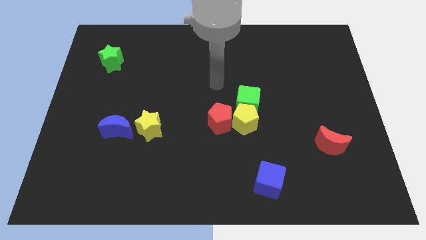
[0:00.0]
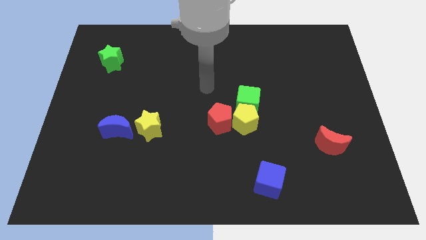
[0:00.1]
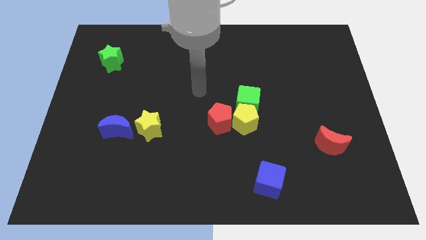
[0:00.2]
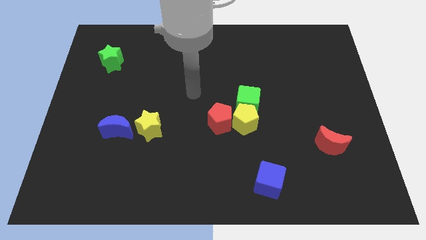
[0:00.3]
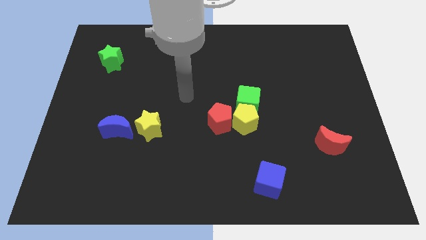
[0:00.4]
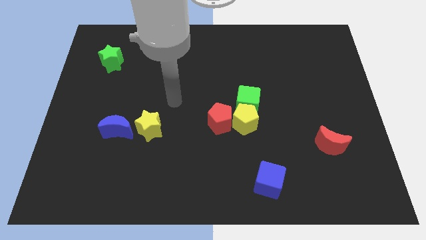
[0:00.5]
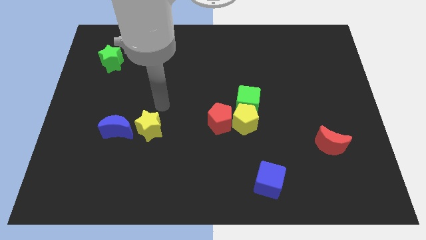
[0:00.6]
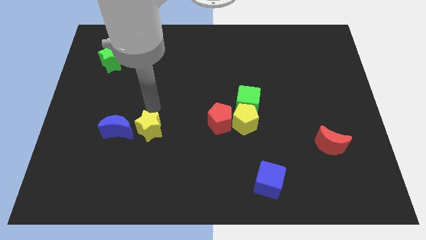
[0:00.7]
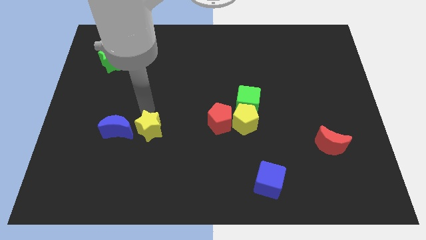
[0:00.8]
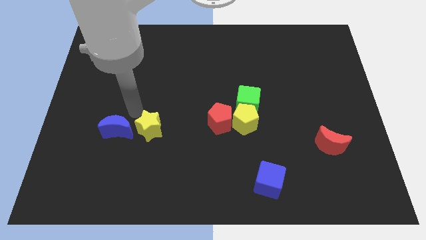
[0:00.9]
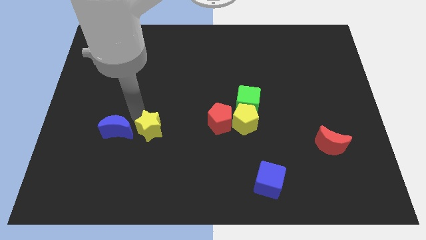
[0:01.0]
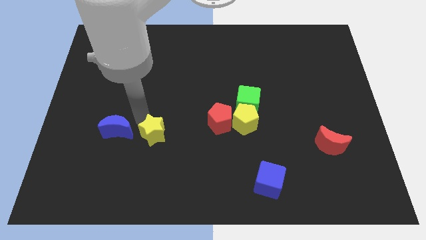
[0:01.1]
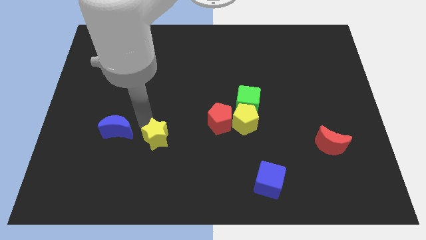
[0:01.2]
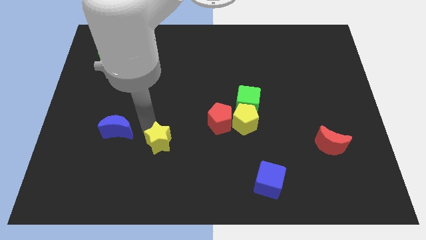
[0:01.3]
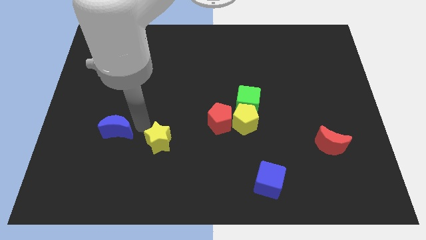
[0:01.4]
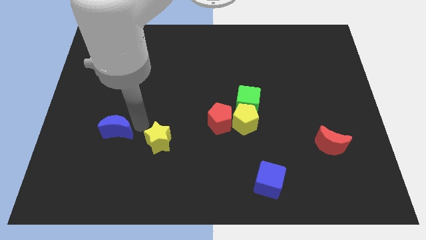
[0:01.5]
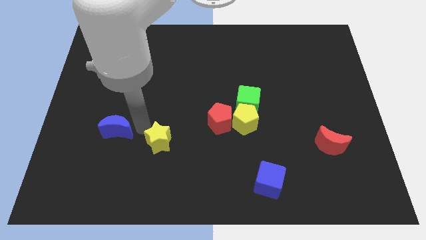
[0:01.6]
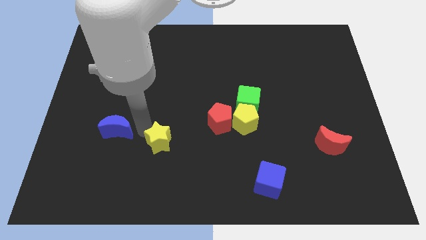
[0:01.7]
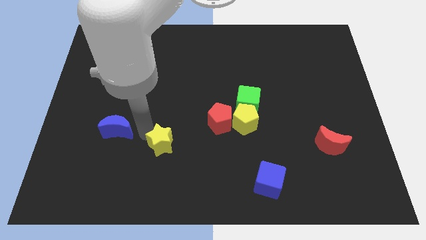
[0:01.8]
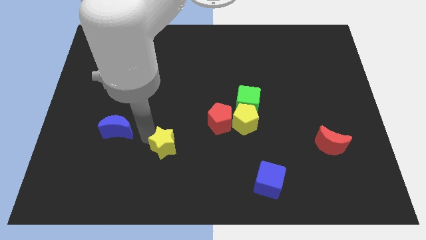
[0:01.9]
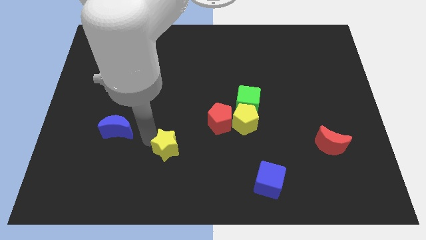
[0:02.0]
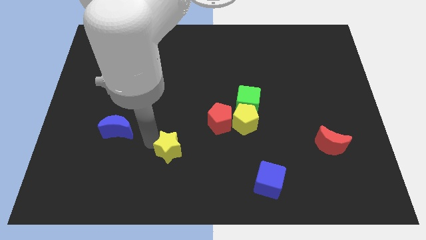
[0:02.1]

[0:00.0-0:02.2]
push the yellow star down and then right a little

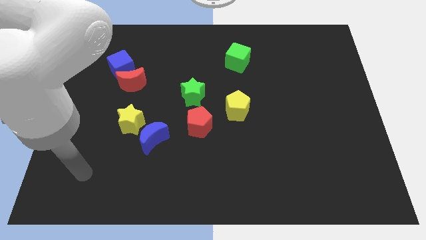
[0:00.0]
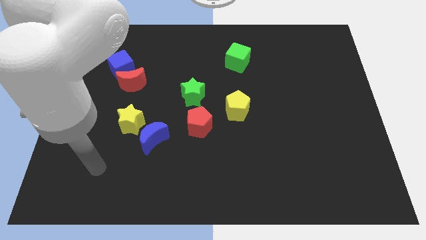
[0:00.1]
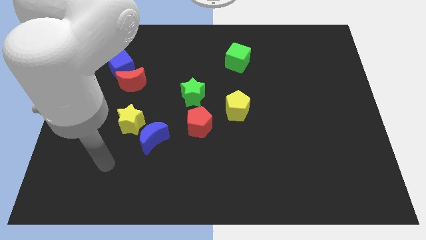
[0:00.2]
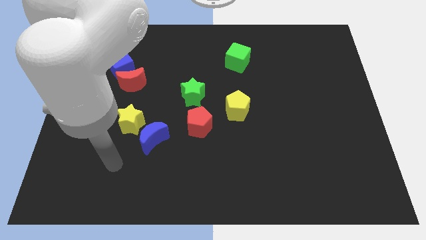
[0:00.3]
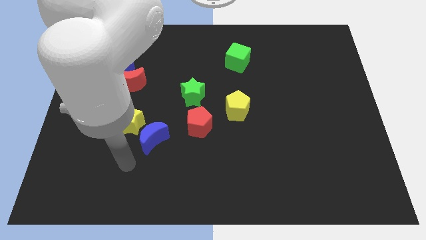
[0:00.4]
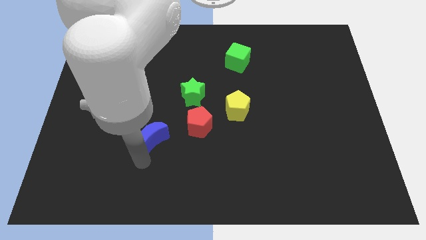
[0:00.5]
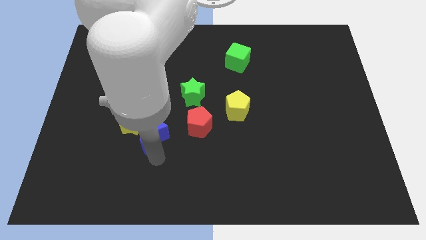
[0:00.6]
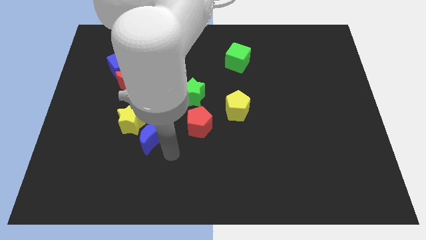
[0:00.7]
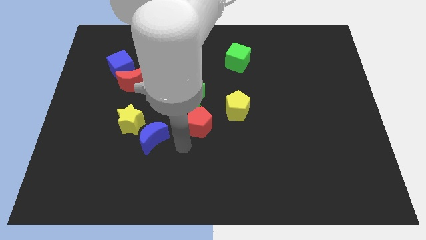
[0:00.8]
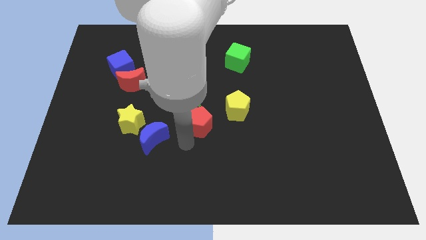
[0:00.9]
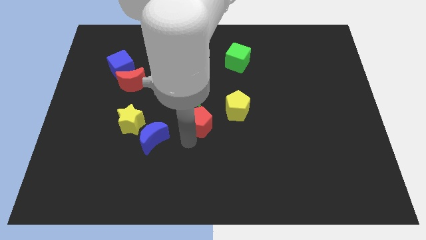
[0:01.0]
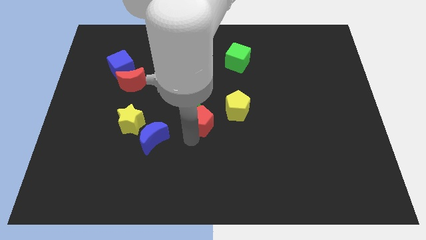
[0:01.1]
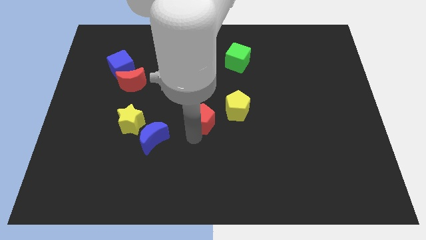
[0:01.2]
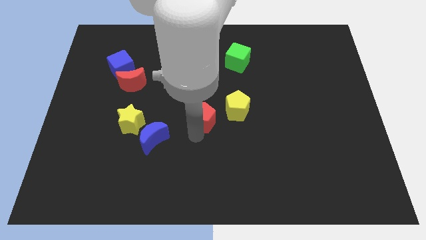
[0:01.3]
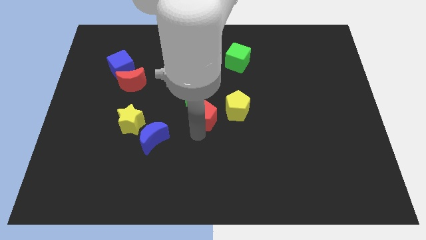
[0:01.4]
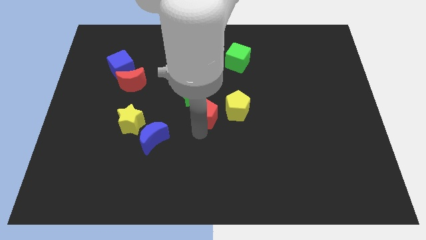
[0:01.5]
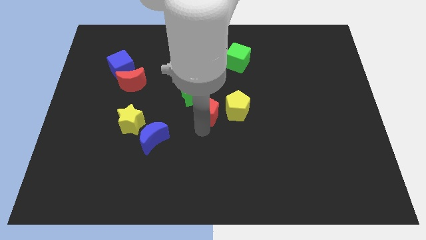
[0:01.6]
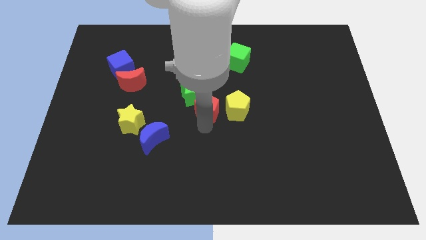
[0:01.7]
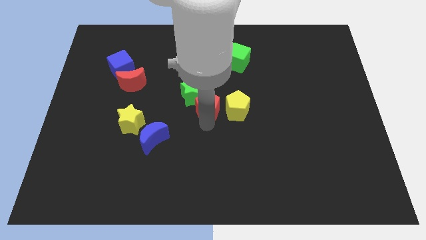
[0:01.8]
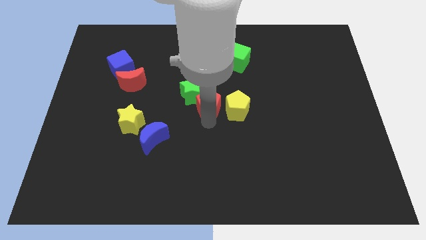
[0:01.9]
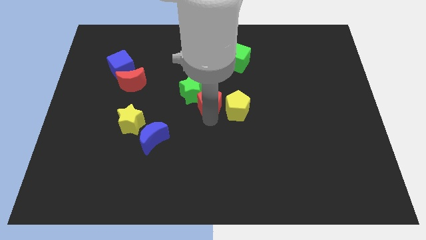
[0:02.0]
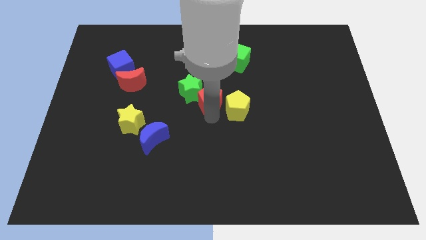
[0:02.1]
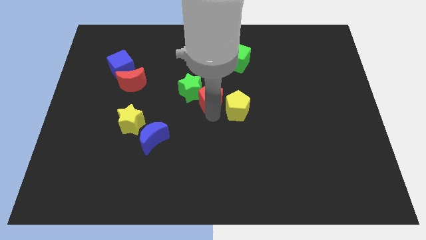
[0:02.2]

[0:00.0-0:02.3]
slide the red pentagon up slightly

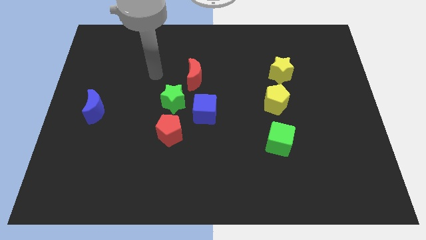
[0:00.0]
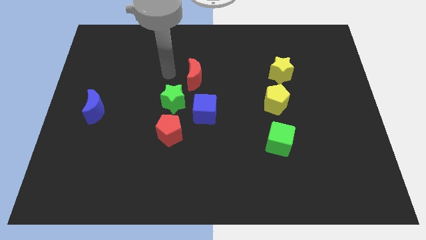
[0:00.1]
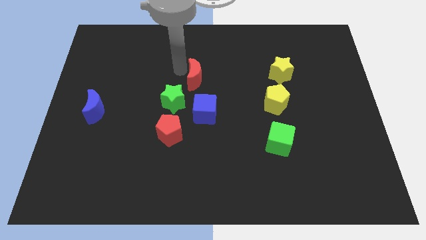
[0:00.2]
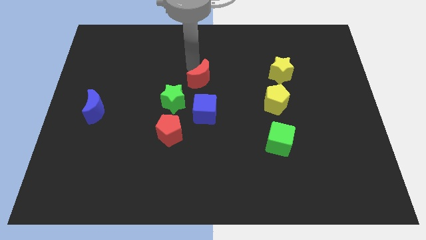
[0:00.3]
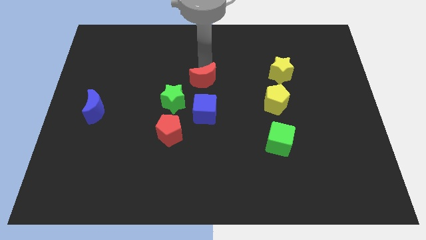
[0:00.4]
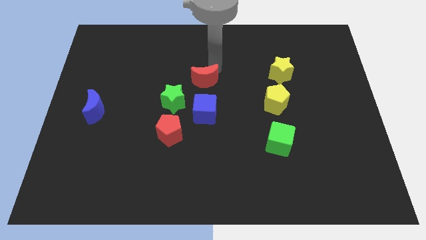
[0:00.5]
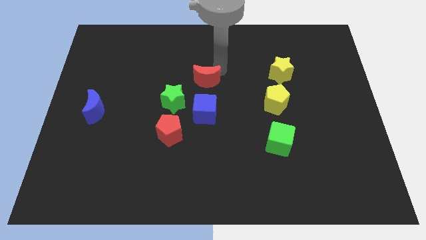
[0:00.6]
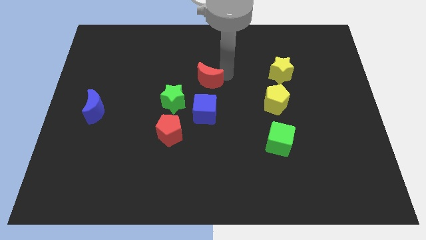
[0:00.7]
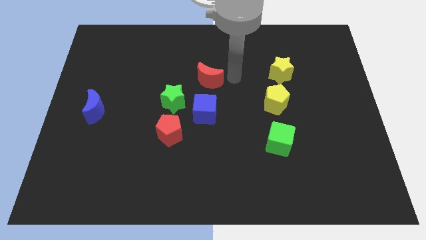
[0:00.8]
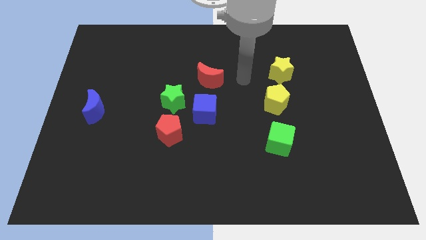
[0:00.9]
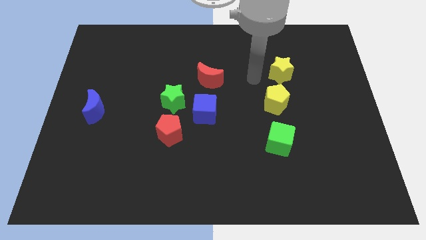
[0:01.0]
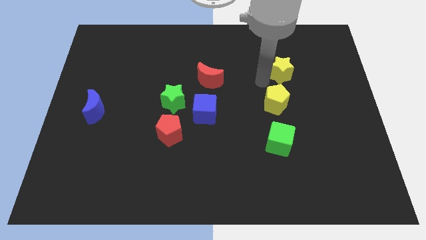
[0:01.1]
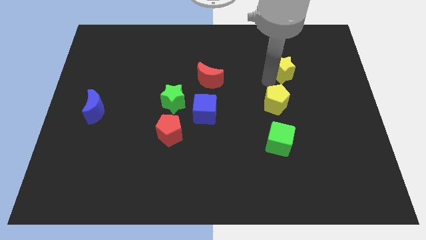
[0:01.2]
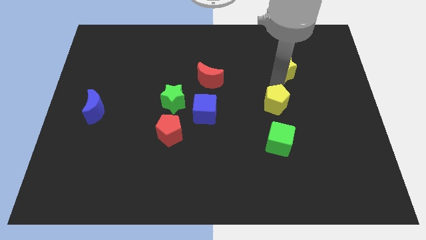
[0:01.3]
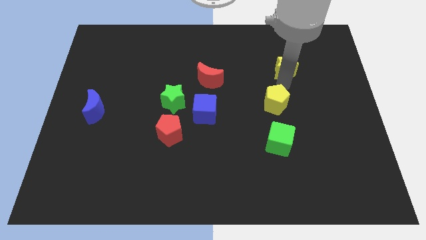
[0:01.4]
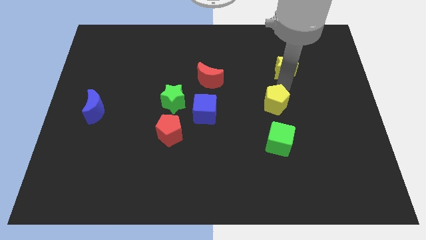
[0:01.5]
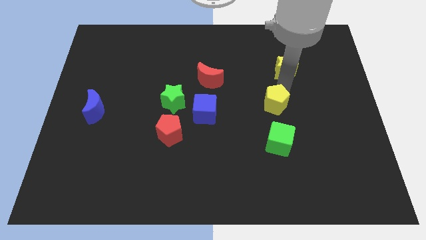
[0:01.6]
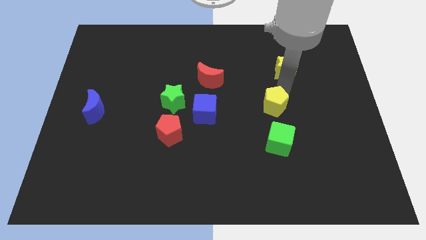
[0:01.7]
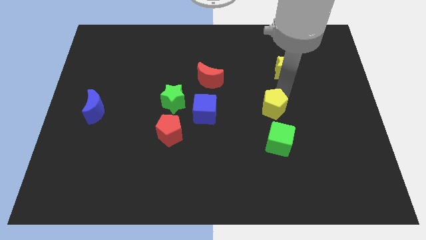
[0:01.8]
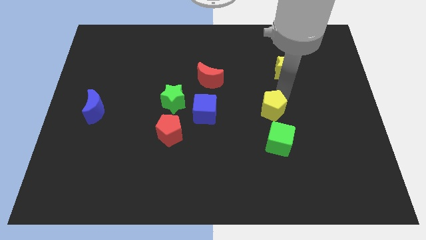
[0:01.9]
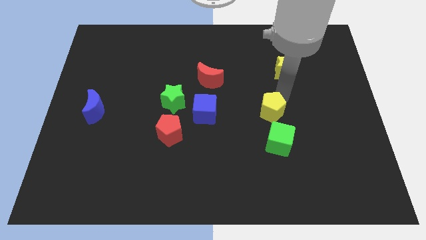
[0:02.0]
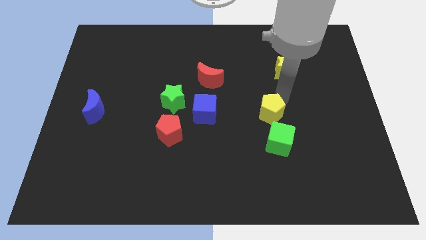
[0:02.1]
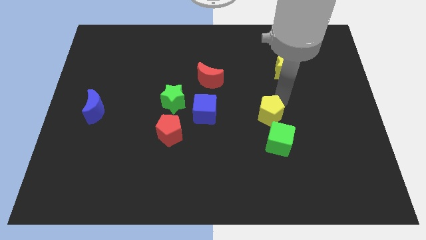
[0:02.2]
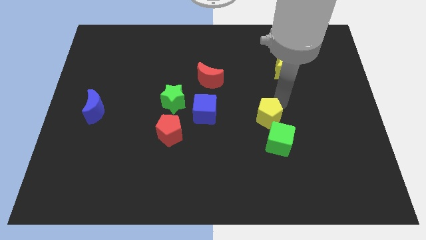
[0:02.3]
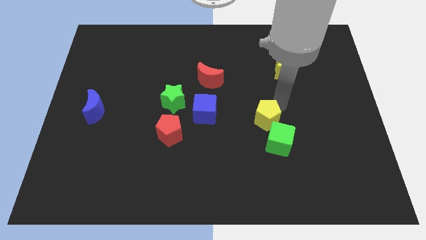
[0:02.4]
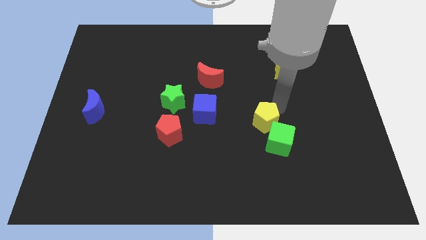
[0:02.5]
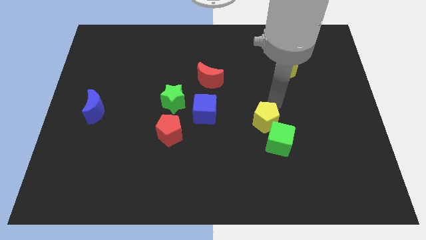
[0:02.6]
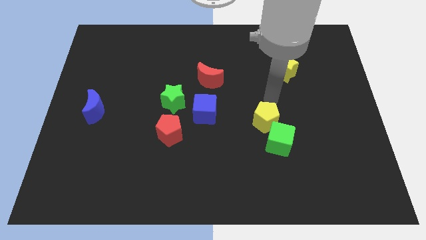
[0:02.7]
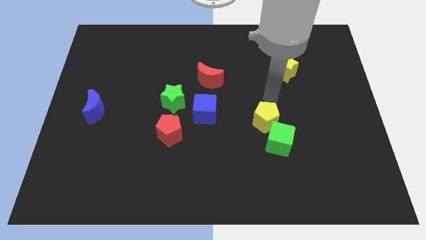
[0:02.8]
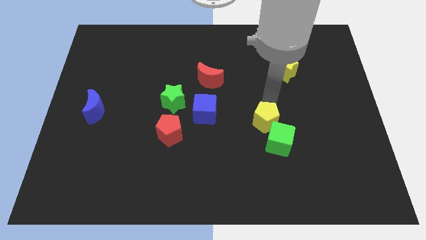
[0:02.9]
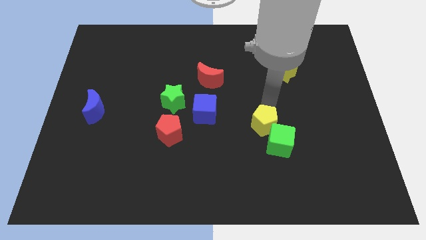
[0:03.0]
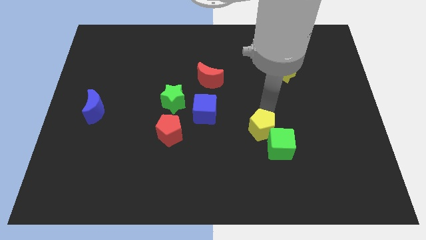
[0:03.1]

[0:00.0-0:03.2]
push the yellow pentagon down a little

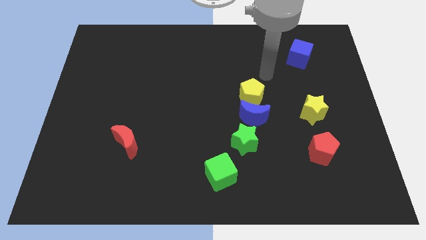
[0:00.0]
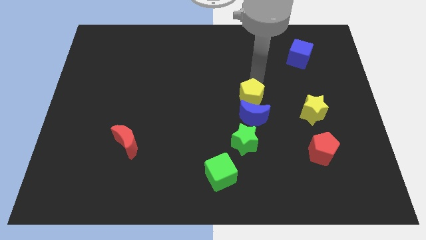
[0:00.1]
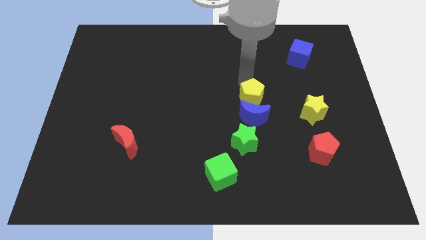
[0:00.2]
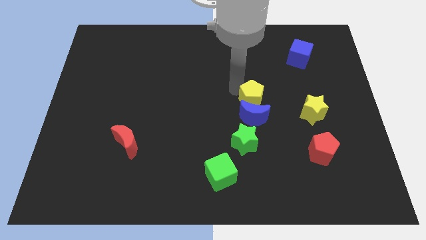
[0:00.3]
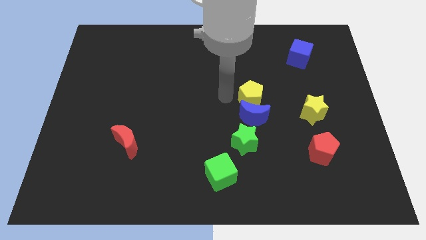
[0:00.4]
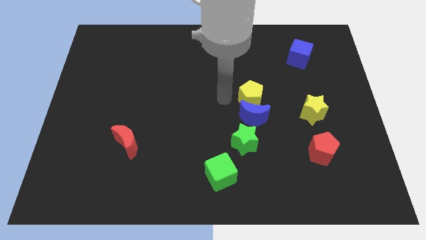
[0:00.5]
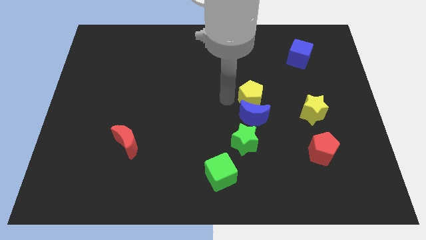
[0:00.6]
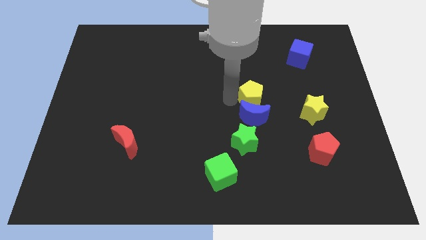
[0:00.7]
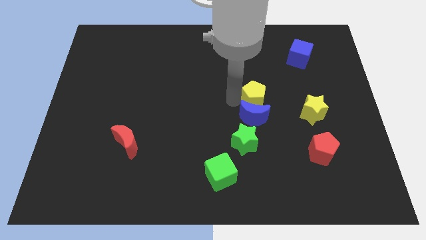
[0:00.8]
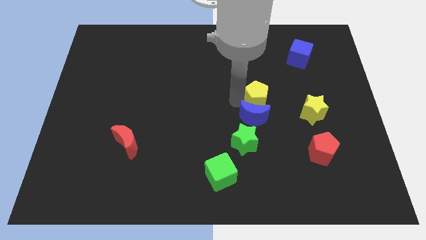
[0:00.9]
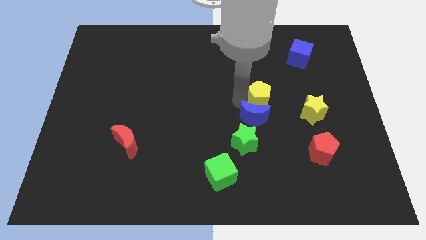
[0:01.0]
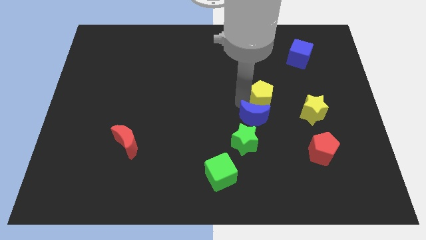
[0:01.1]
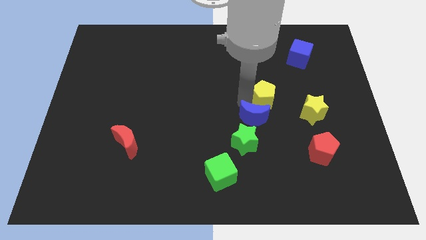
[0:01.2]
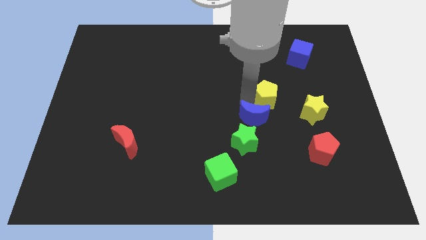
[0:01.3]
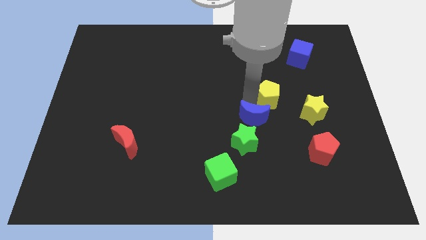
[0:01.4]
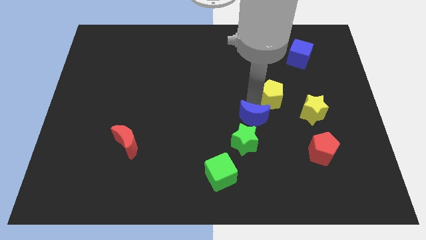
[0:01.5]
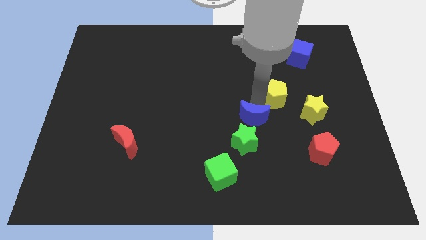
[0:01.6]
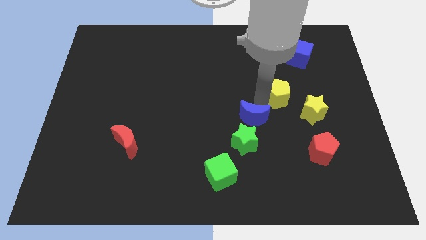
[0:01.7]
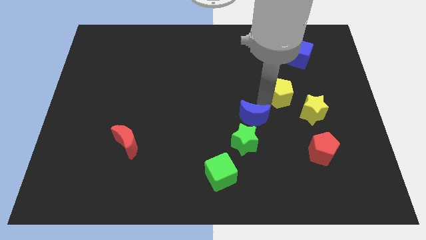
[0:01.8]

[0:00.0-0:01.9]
slightly push the yellow pentagon right
